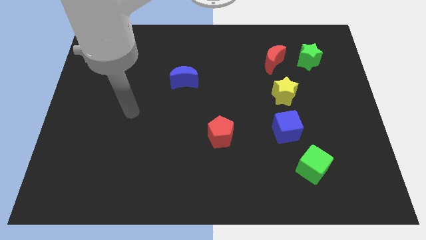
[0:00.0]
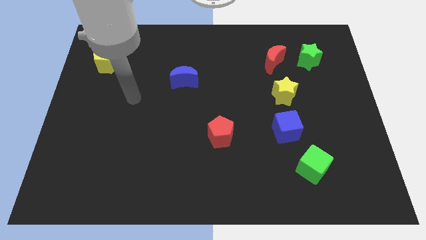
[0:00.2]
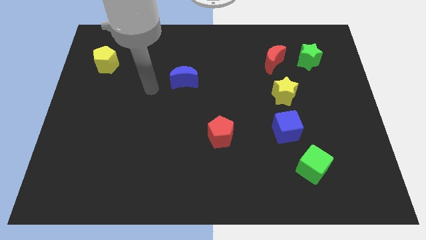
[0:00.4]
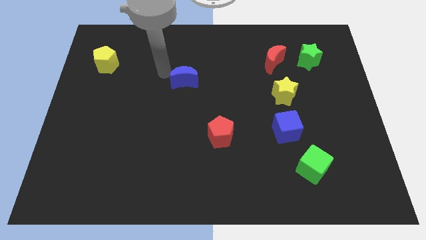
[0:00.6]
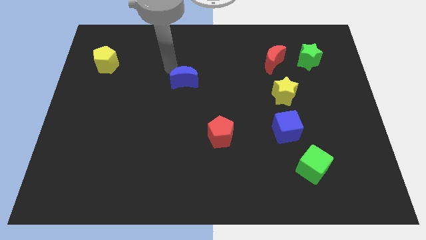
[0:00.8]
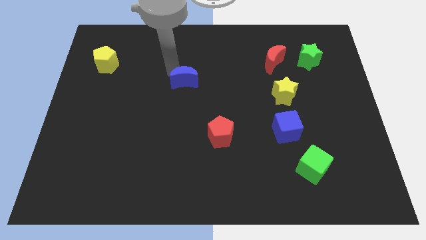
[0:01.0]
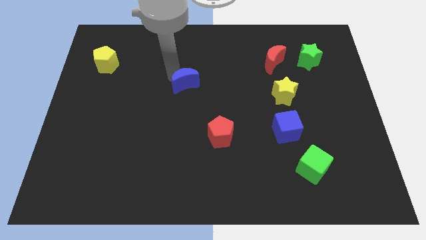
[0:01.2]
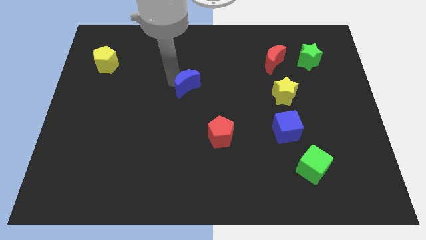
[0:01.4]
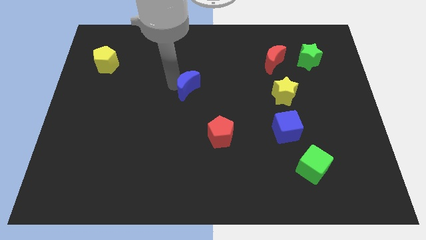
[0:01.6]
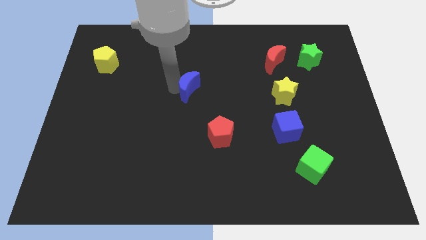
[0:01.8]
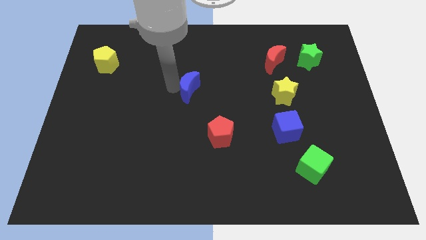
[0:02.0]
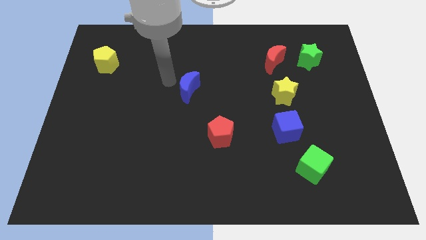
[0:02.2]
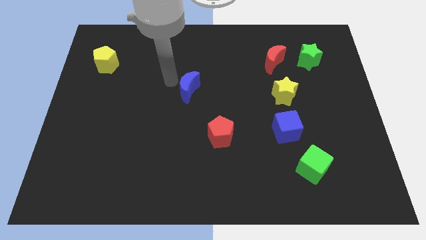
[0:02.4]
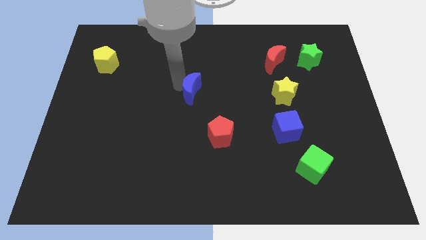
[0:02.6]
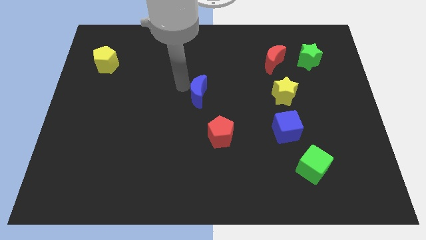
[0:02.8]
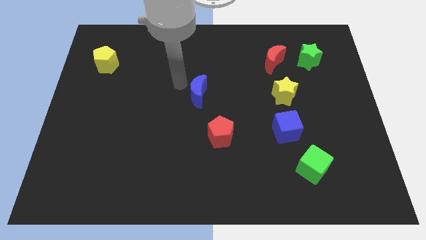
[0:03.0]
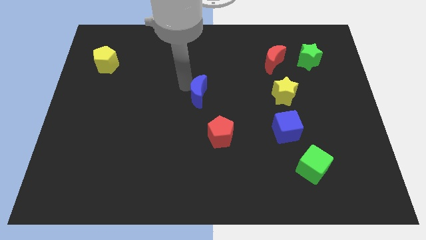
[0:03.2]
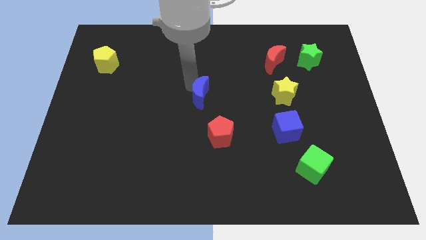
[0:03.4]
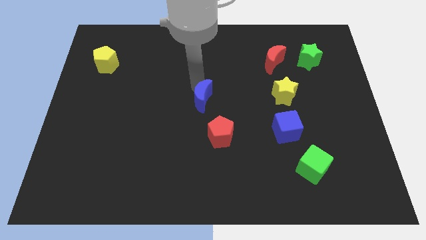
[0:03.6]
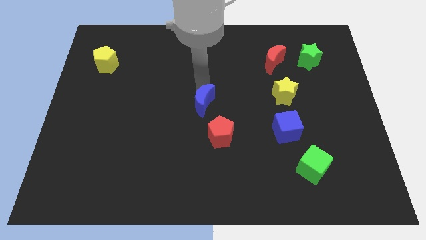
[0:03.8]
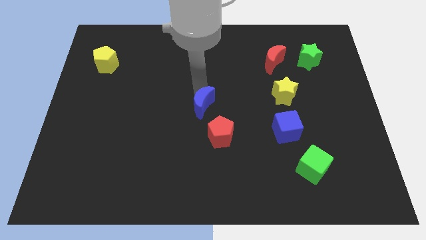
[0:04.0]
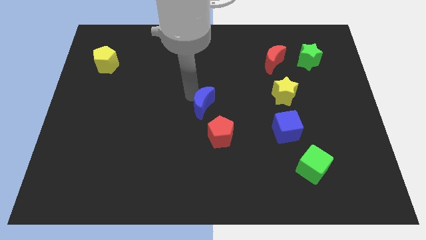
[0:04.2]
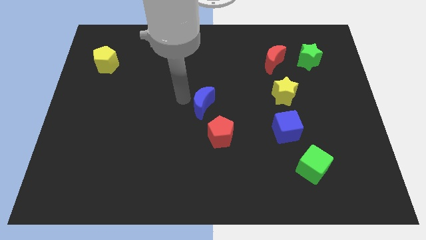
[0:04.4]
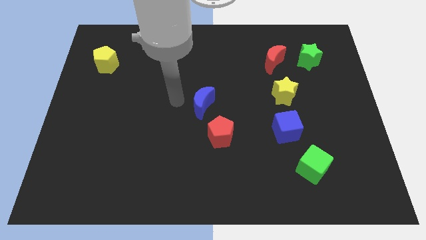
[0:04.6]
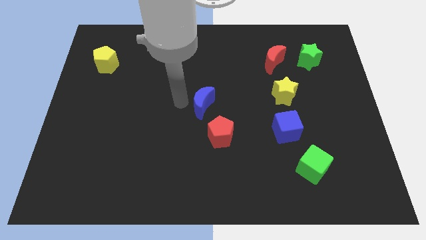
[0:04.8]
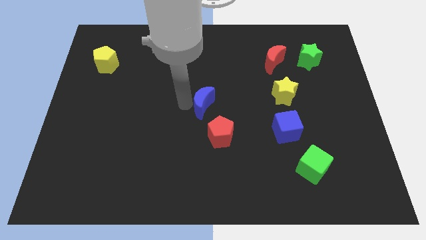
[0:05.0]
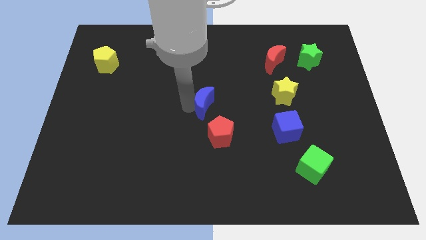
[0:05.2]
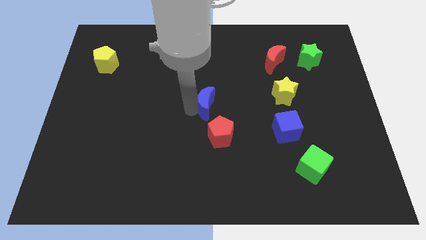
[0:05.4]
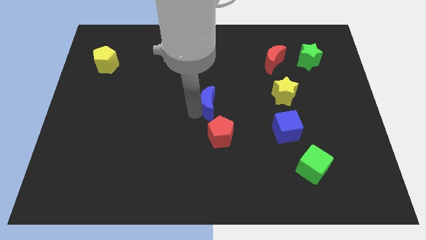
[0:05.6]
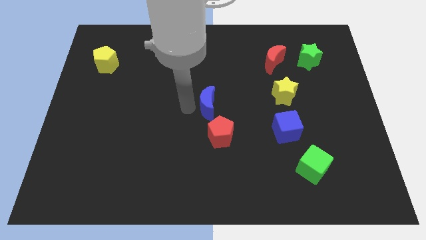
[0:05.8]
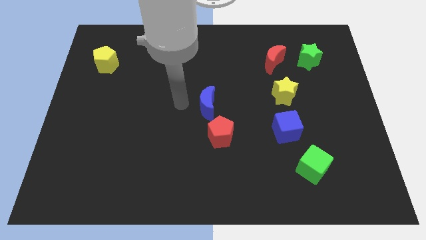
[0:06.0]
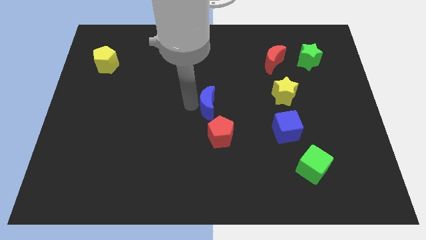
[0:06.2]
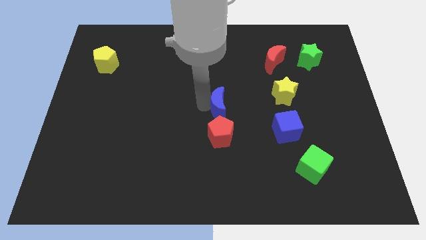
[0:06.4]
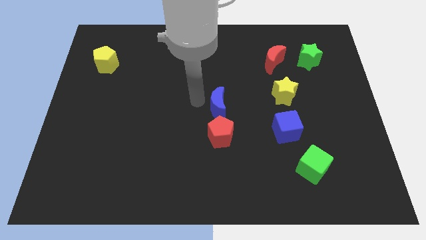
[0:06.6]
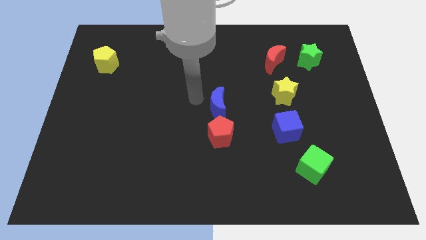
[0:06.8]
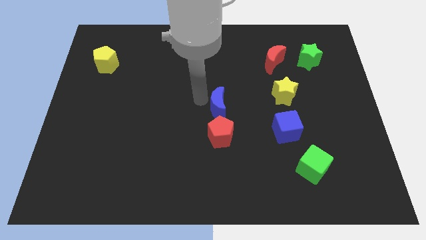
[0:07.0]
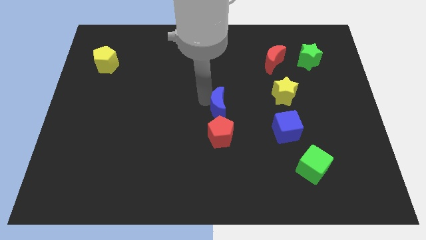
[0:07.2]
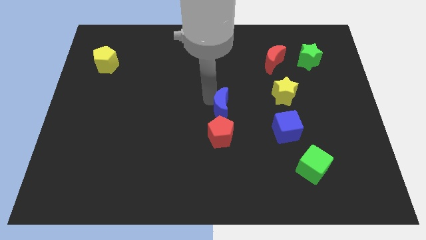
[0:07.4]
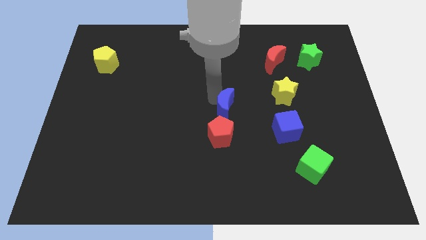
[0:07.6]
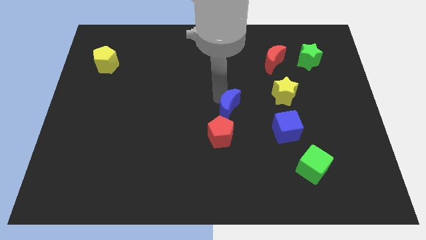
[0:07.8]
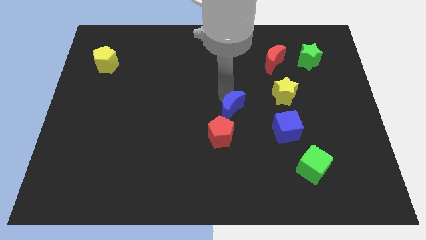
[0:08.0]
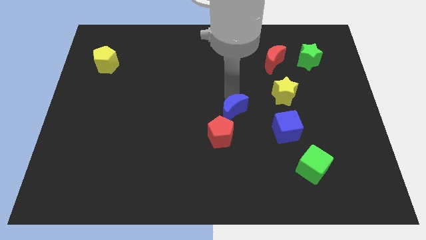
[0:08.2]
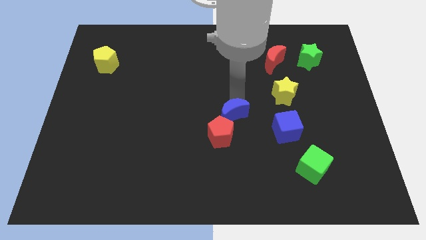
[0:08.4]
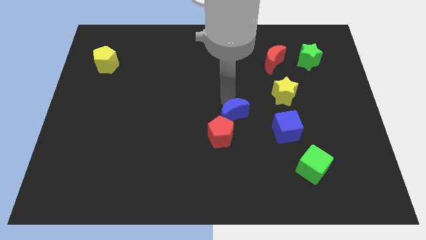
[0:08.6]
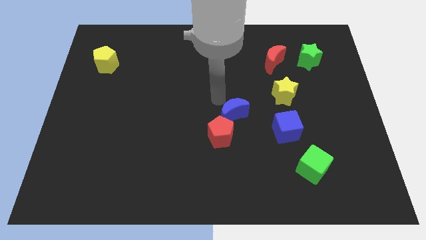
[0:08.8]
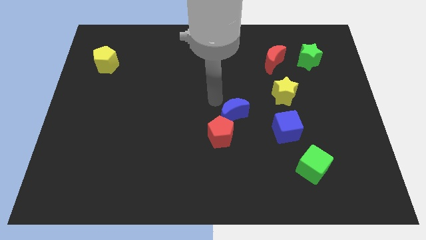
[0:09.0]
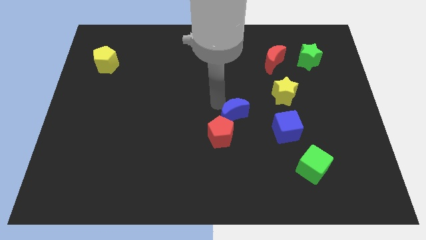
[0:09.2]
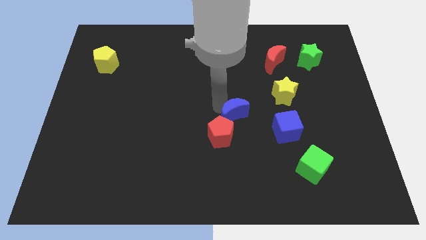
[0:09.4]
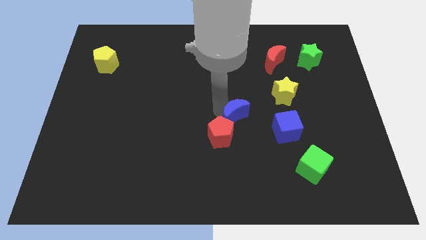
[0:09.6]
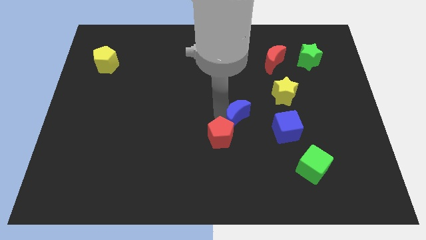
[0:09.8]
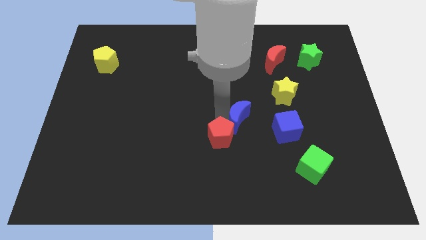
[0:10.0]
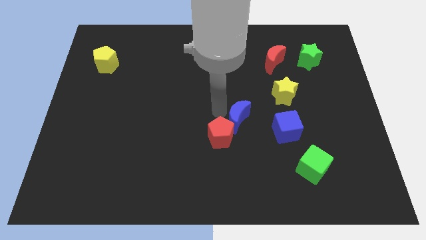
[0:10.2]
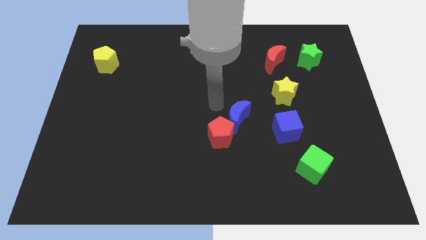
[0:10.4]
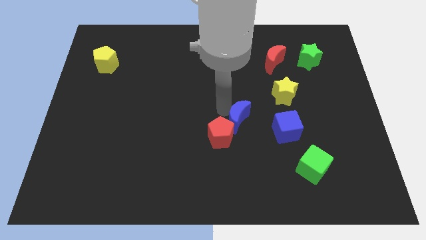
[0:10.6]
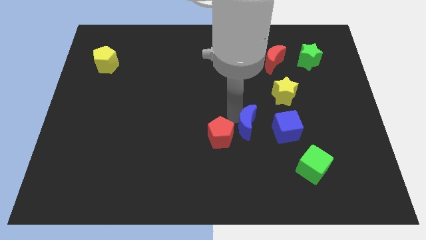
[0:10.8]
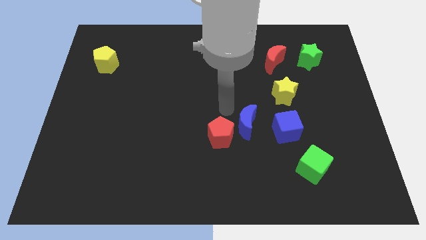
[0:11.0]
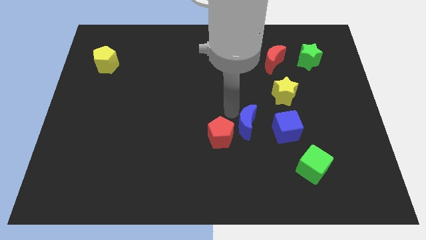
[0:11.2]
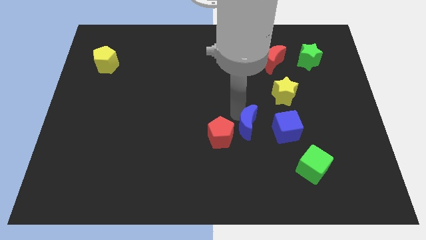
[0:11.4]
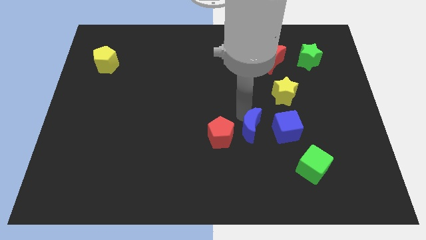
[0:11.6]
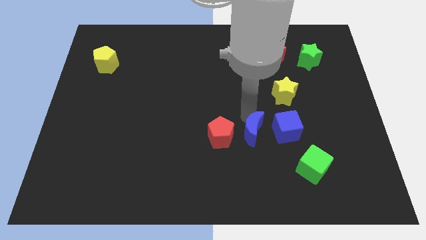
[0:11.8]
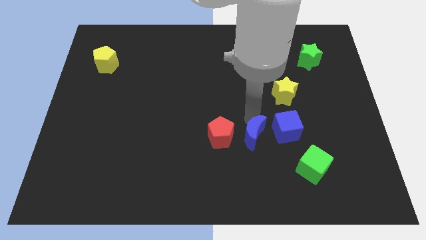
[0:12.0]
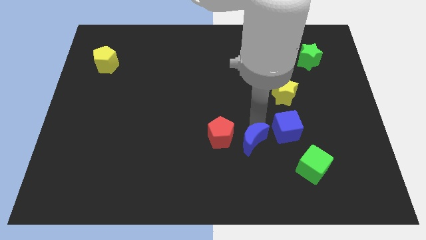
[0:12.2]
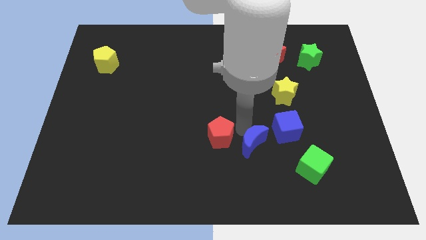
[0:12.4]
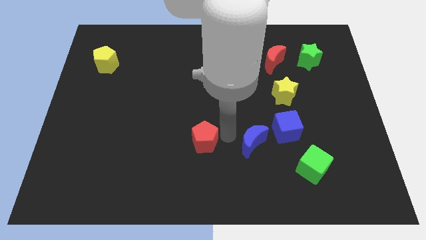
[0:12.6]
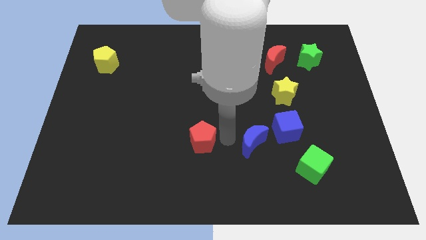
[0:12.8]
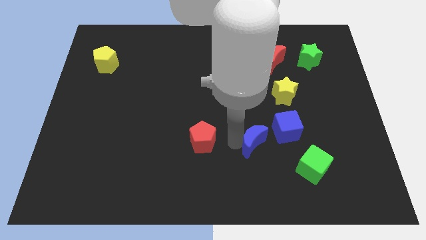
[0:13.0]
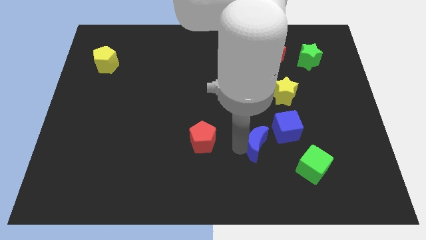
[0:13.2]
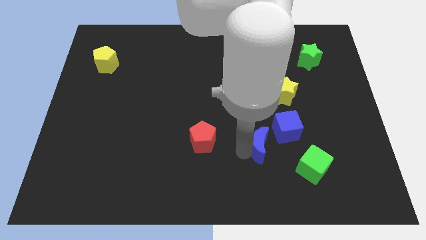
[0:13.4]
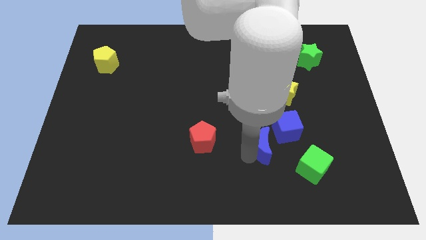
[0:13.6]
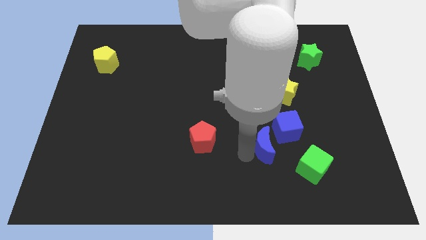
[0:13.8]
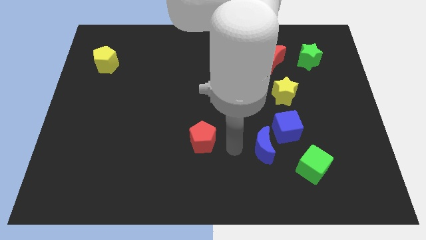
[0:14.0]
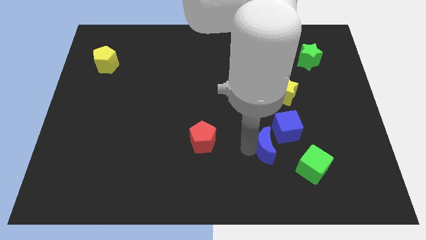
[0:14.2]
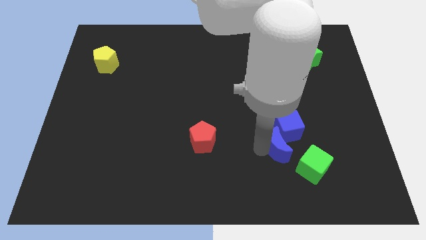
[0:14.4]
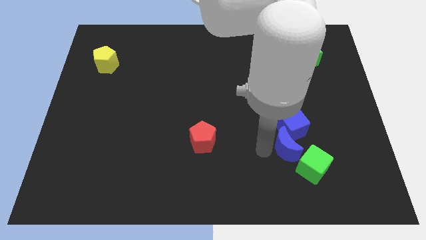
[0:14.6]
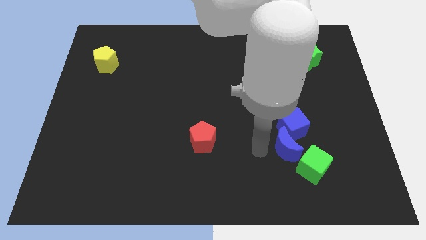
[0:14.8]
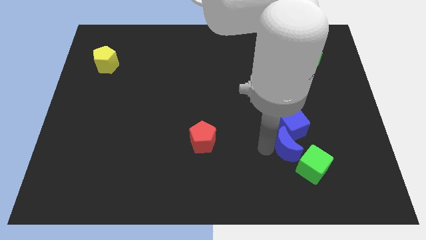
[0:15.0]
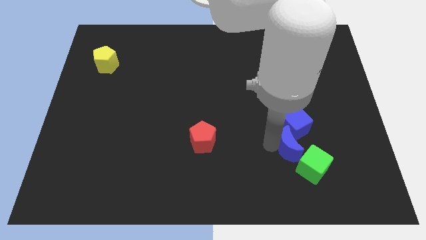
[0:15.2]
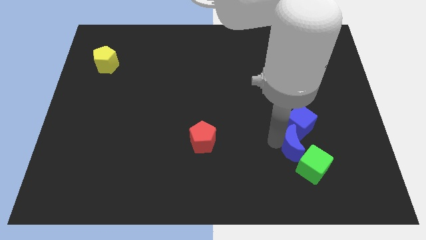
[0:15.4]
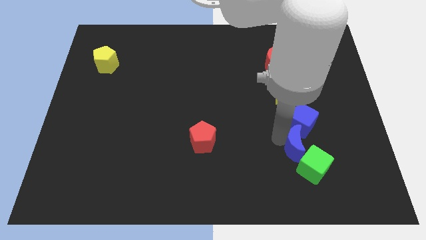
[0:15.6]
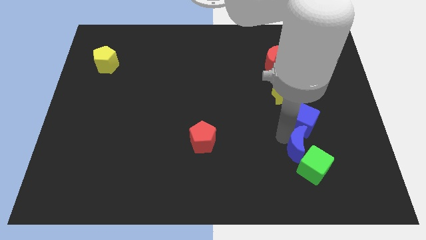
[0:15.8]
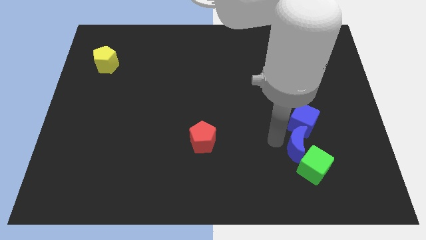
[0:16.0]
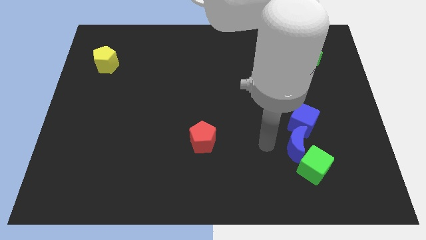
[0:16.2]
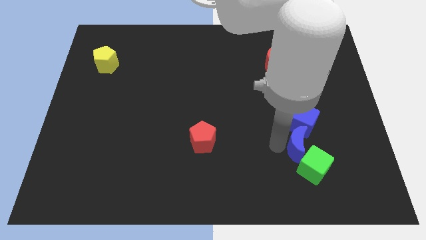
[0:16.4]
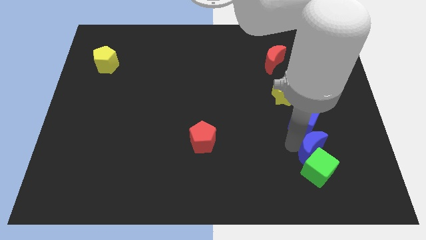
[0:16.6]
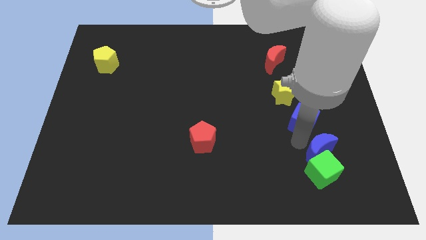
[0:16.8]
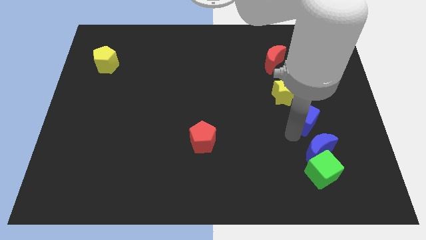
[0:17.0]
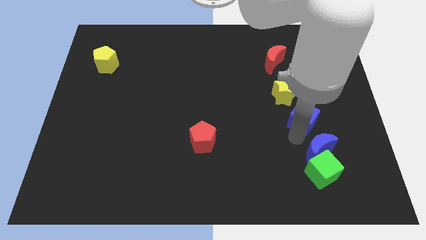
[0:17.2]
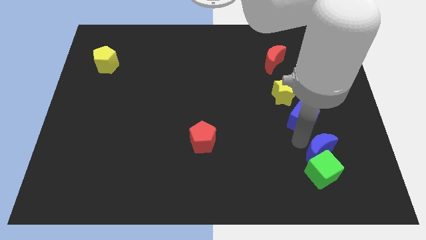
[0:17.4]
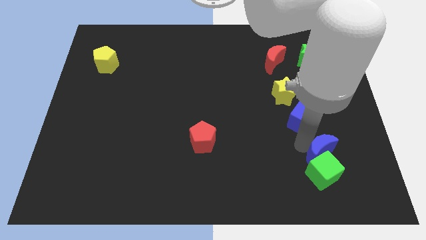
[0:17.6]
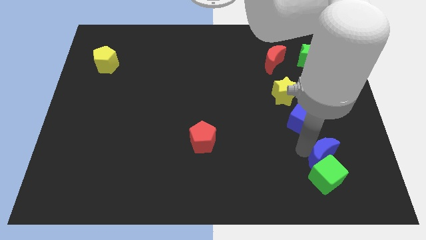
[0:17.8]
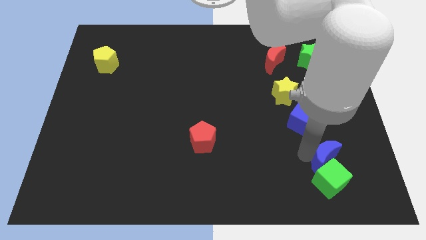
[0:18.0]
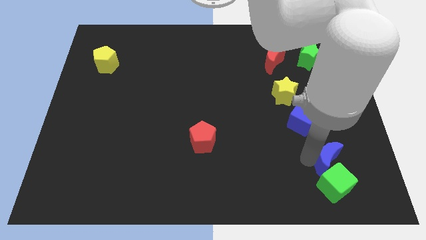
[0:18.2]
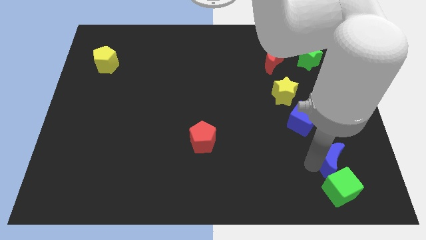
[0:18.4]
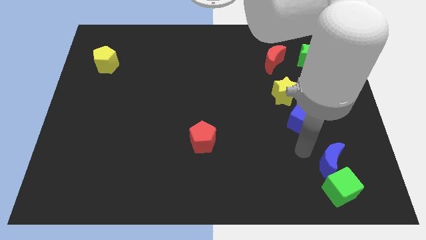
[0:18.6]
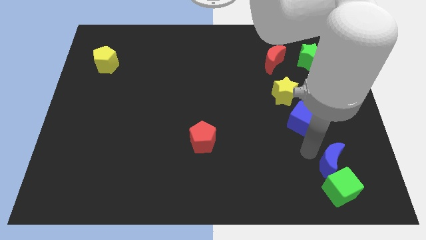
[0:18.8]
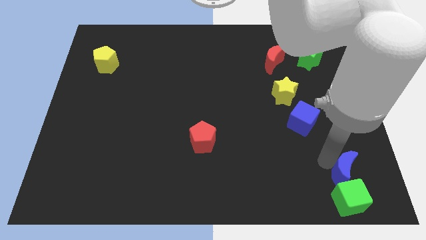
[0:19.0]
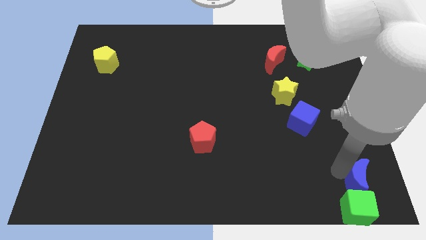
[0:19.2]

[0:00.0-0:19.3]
move the blue moon to the bottom right of the board
